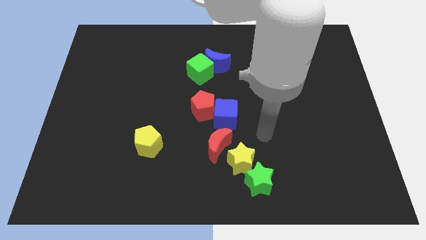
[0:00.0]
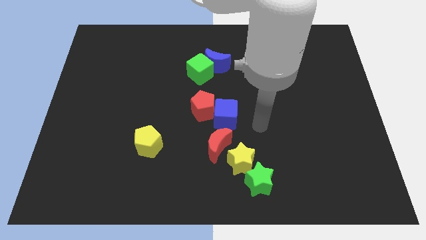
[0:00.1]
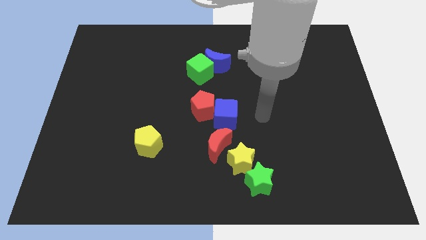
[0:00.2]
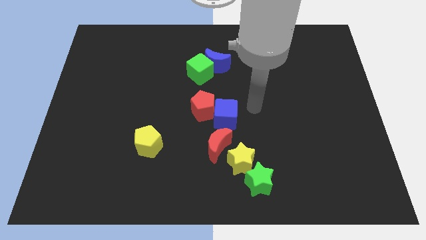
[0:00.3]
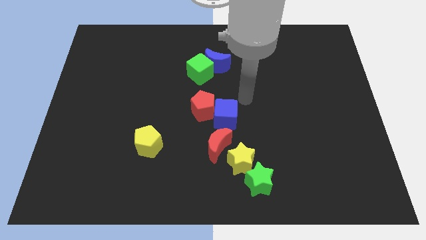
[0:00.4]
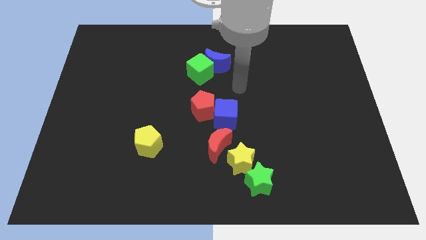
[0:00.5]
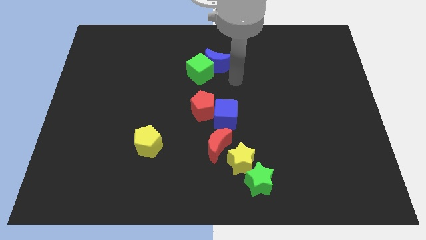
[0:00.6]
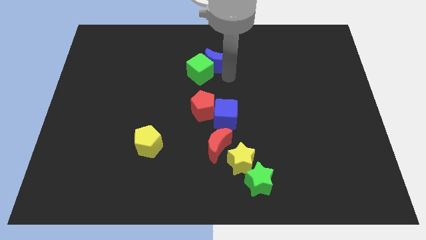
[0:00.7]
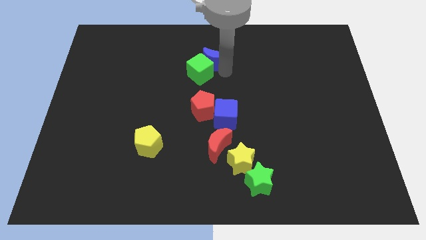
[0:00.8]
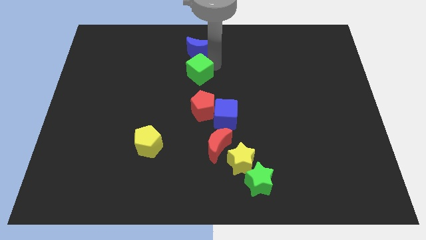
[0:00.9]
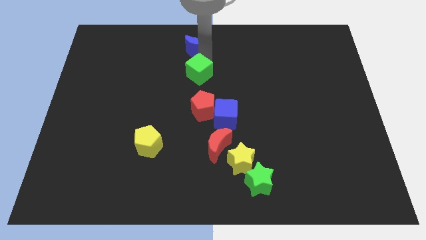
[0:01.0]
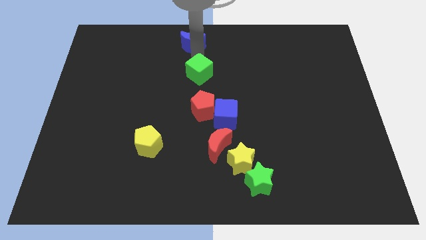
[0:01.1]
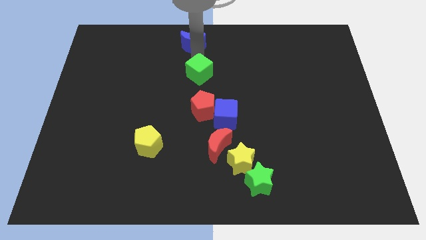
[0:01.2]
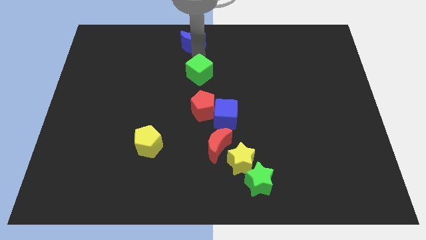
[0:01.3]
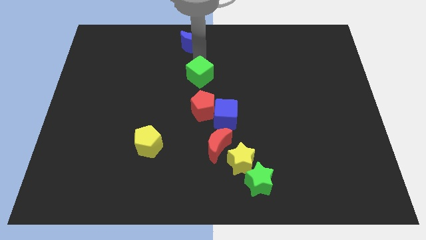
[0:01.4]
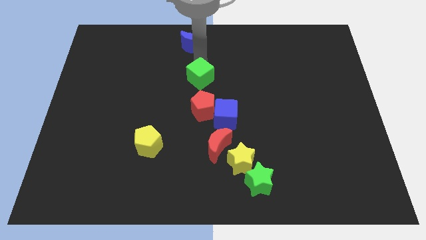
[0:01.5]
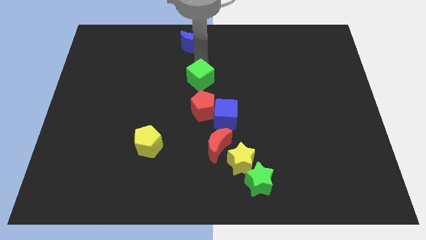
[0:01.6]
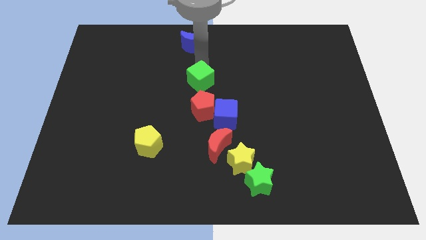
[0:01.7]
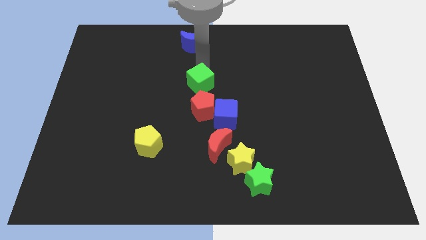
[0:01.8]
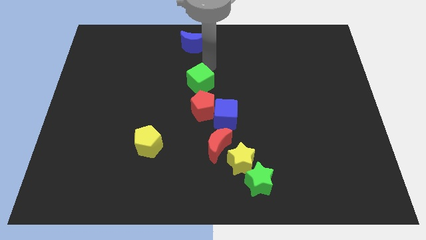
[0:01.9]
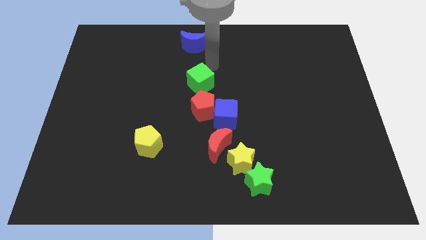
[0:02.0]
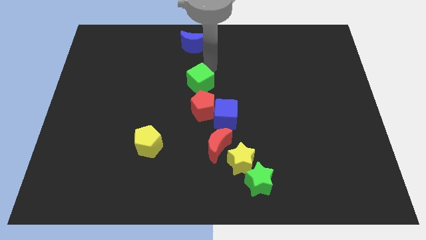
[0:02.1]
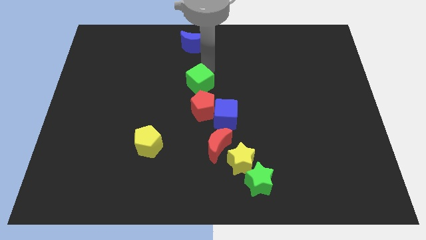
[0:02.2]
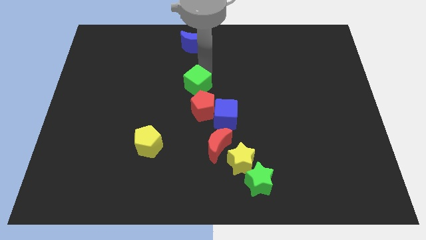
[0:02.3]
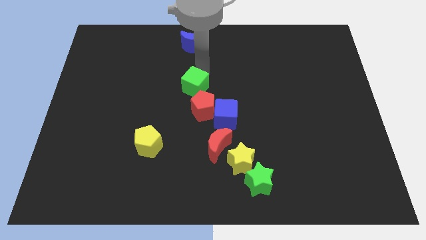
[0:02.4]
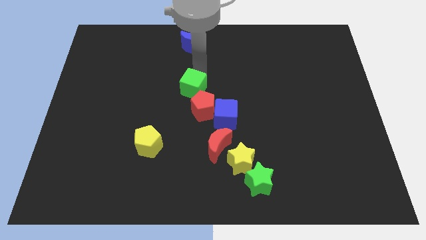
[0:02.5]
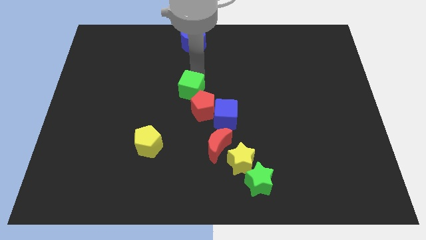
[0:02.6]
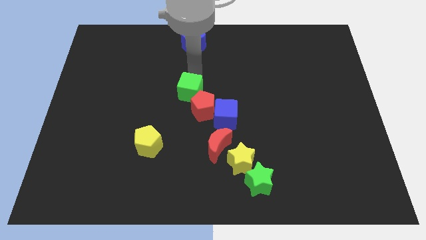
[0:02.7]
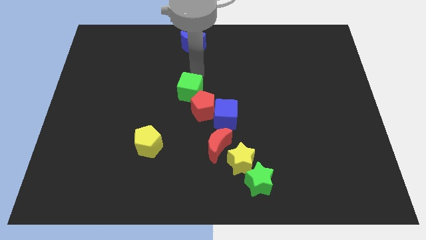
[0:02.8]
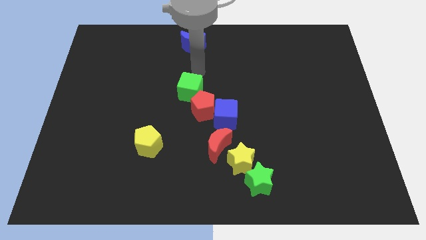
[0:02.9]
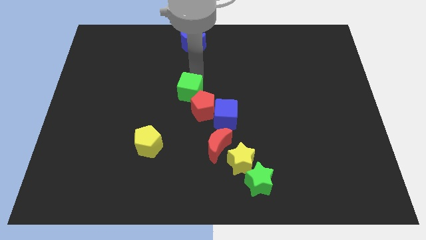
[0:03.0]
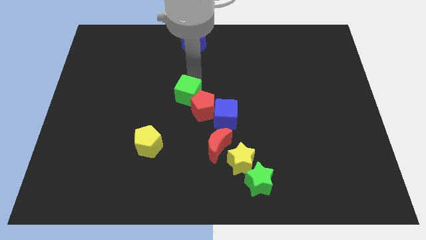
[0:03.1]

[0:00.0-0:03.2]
slightly push the green cube down

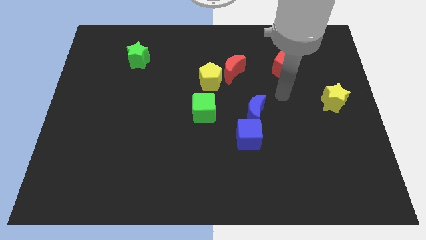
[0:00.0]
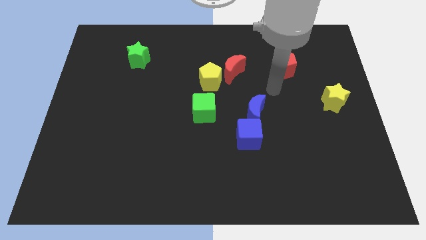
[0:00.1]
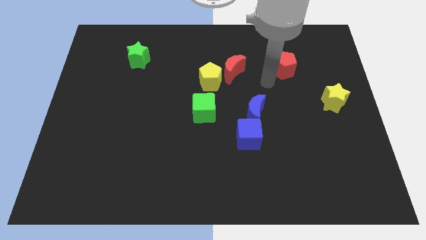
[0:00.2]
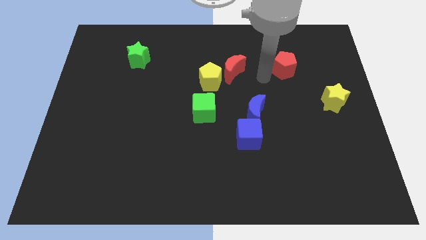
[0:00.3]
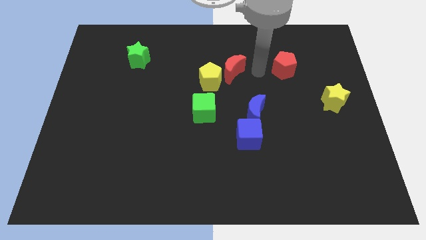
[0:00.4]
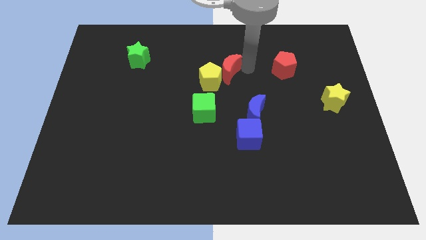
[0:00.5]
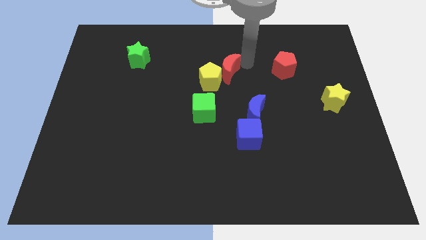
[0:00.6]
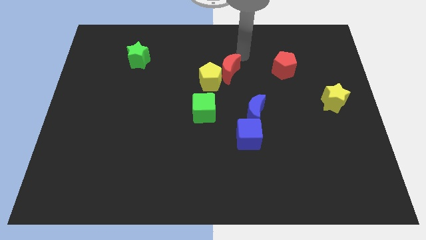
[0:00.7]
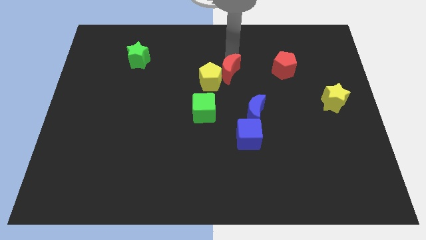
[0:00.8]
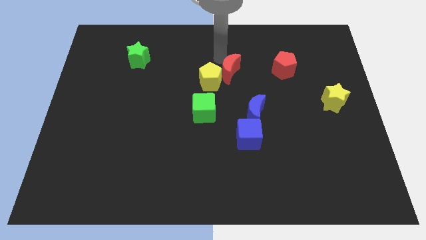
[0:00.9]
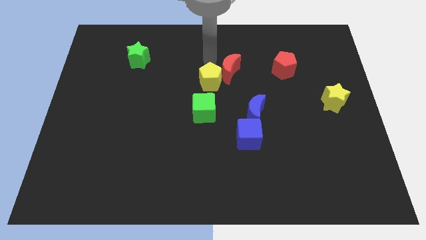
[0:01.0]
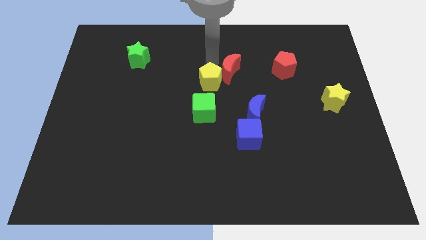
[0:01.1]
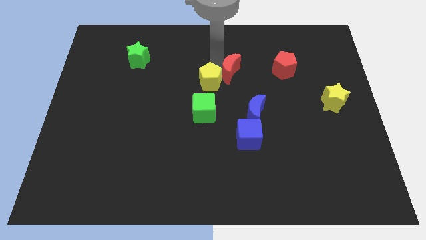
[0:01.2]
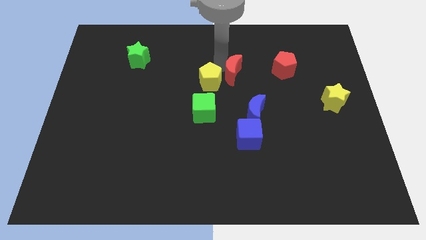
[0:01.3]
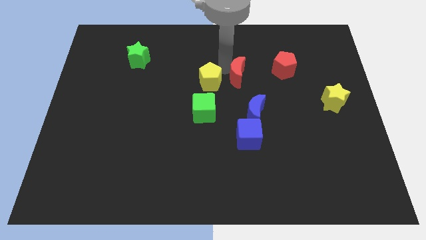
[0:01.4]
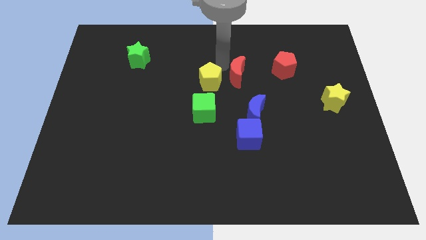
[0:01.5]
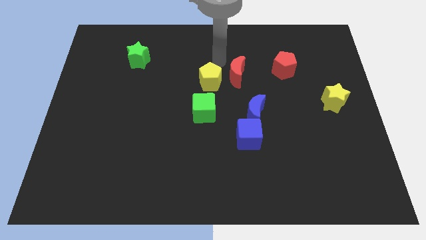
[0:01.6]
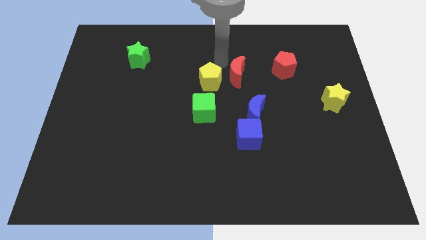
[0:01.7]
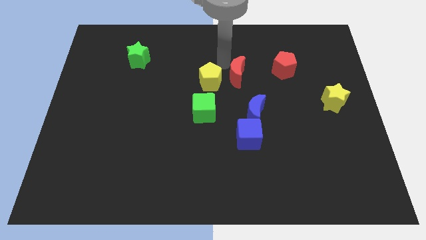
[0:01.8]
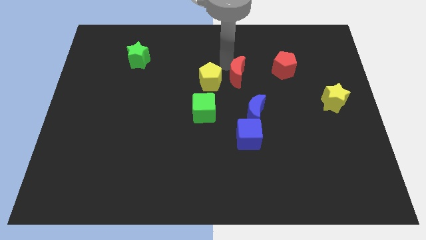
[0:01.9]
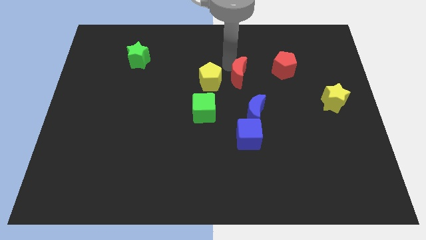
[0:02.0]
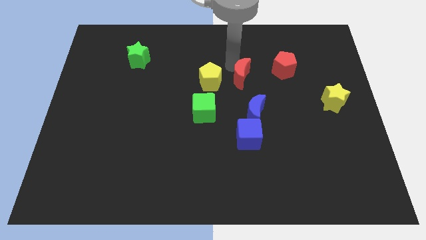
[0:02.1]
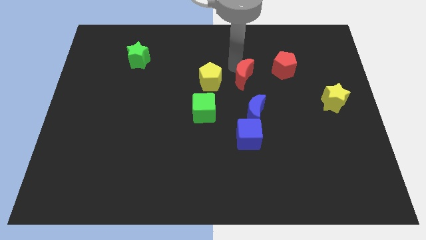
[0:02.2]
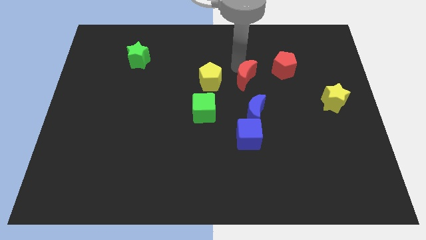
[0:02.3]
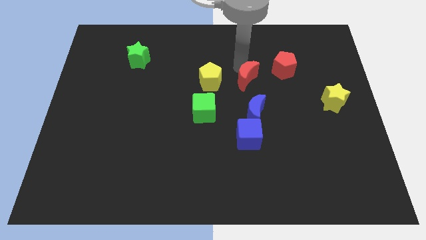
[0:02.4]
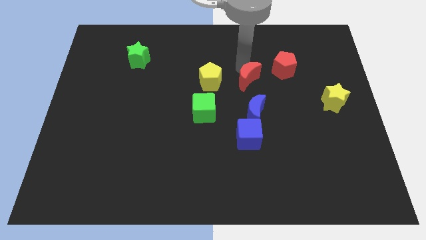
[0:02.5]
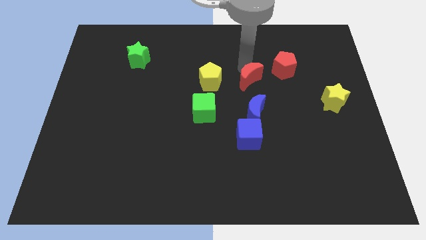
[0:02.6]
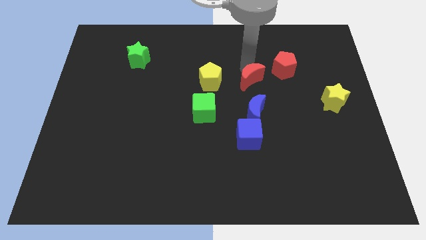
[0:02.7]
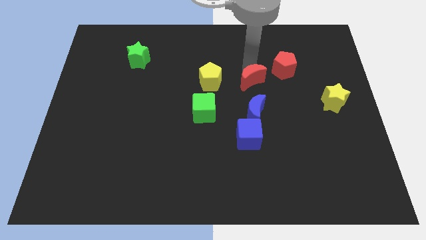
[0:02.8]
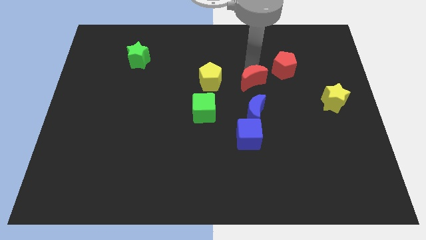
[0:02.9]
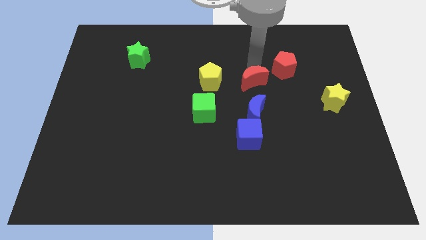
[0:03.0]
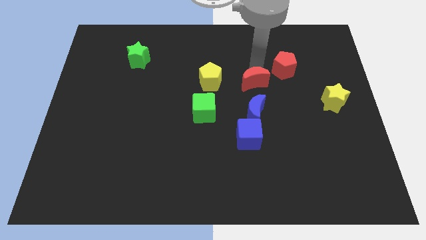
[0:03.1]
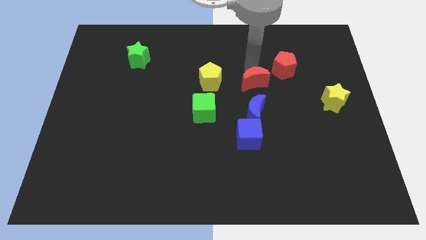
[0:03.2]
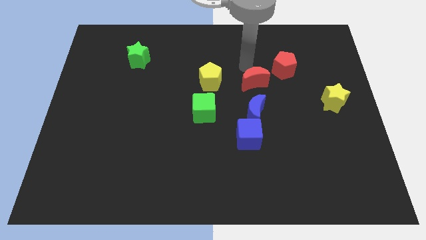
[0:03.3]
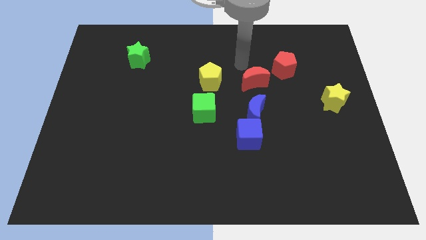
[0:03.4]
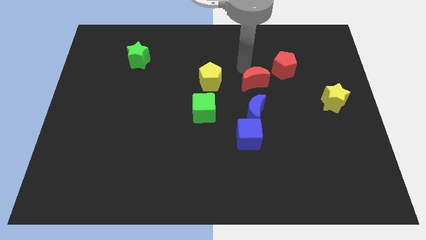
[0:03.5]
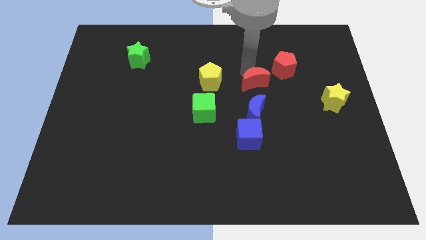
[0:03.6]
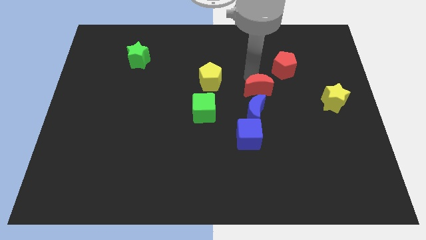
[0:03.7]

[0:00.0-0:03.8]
move the red moon somewhat diagonally downwards and right

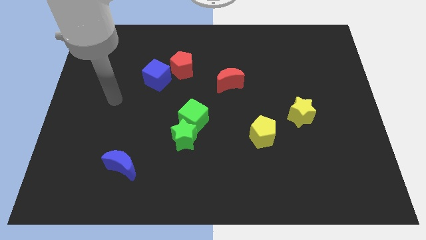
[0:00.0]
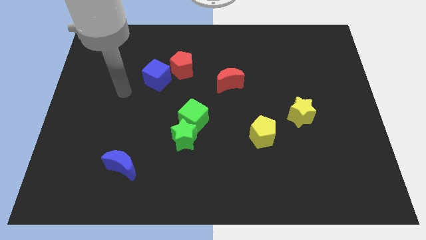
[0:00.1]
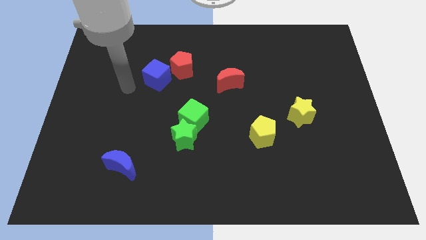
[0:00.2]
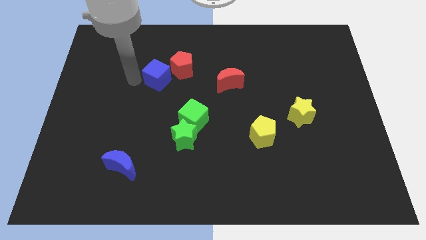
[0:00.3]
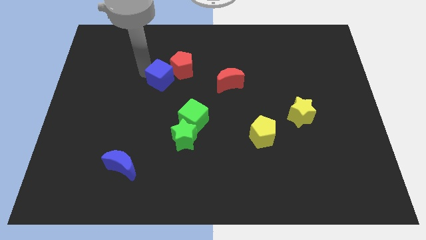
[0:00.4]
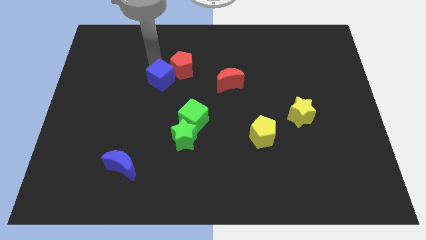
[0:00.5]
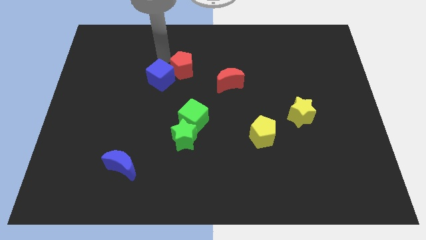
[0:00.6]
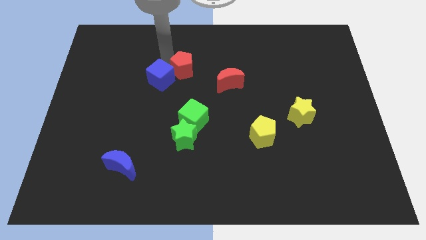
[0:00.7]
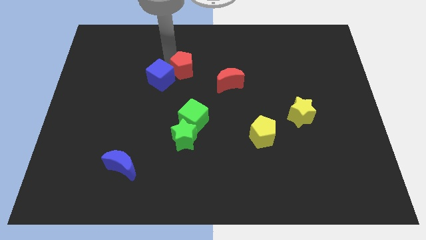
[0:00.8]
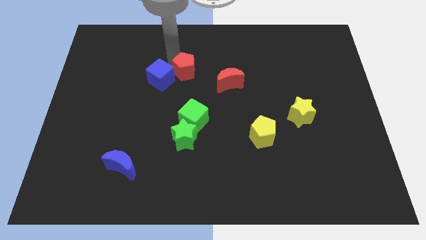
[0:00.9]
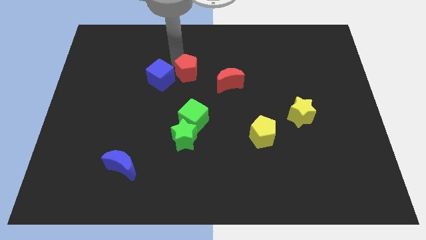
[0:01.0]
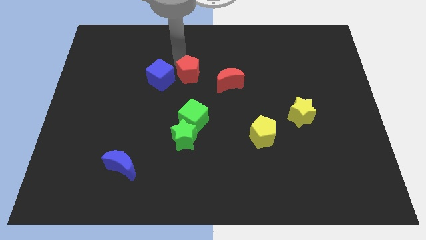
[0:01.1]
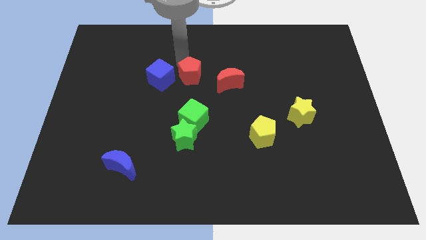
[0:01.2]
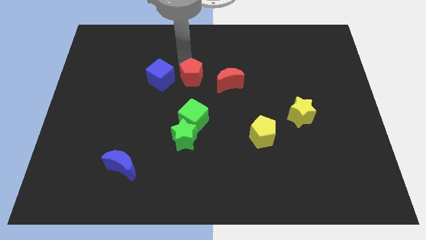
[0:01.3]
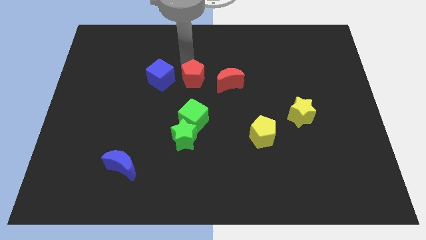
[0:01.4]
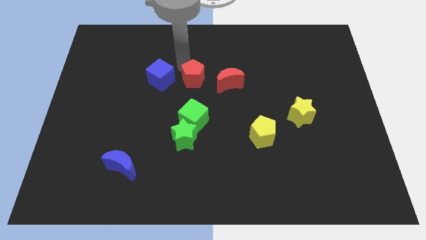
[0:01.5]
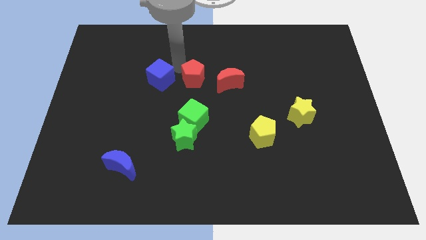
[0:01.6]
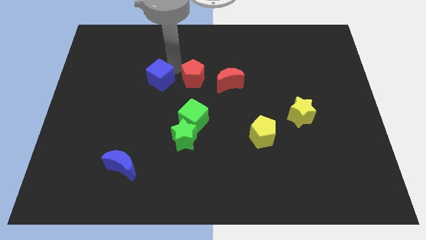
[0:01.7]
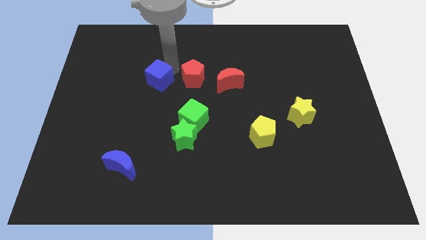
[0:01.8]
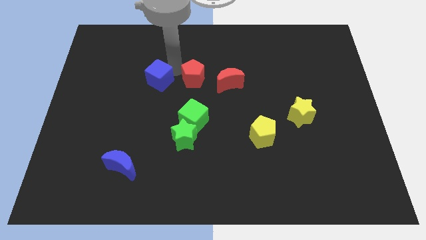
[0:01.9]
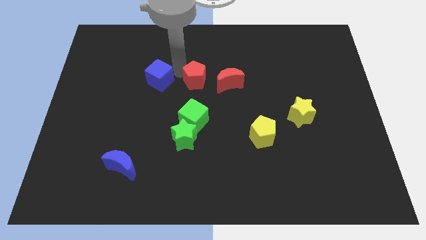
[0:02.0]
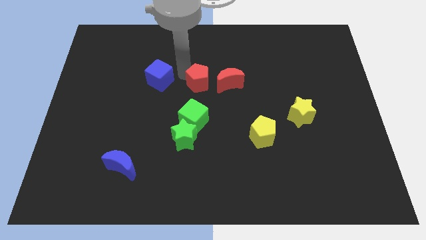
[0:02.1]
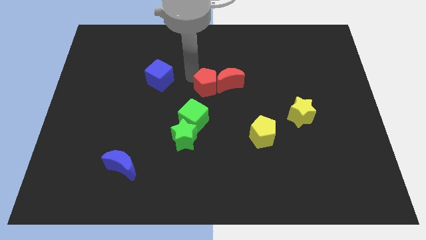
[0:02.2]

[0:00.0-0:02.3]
slightly move the red pentagon downwards and to the right diagonally
